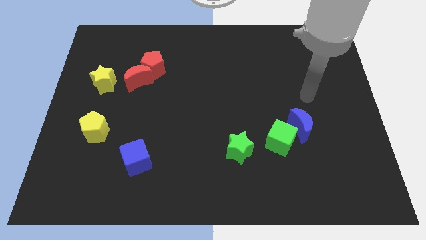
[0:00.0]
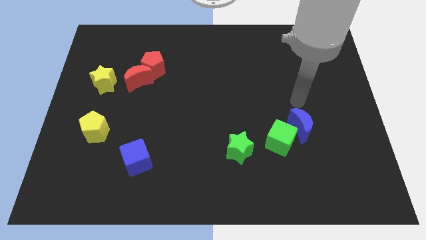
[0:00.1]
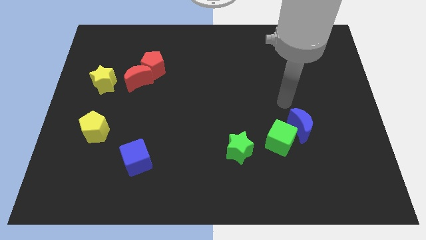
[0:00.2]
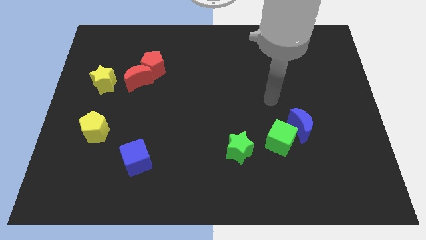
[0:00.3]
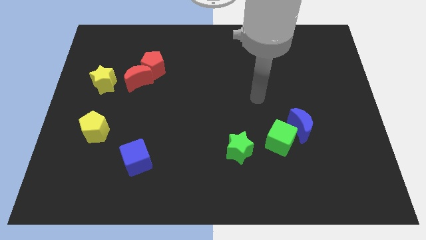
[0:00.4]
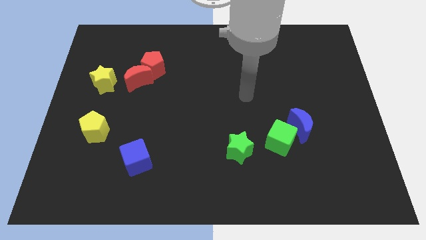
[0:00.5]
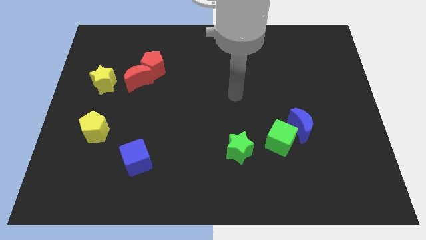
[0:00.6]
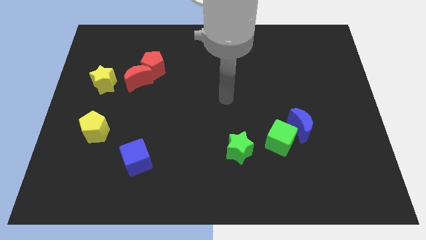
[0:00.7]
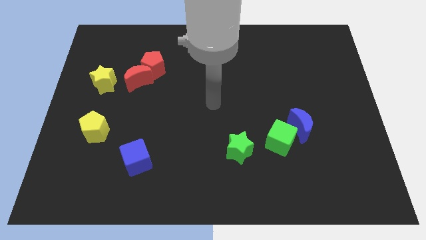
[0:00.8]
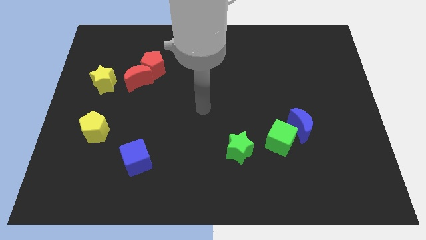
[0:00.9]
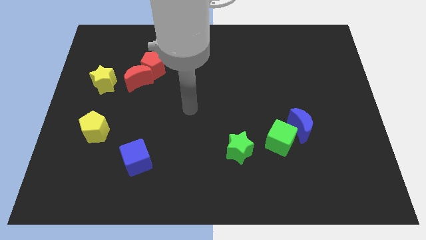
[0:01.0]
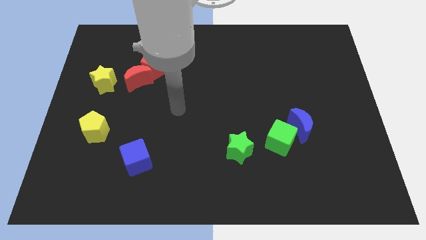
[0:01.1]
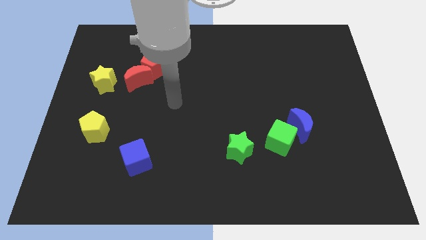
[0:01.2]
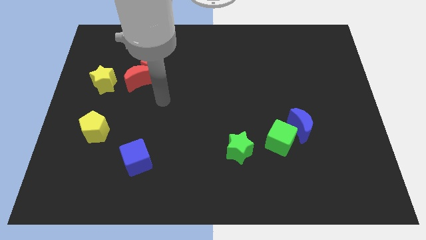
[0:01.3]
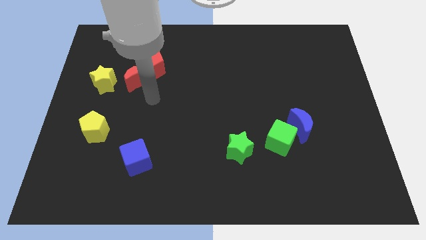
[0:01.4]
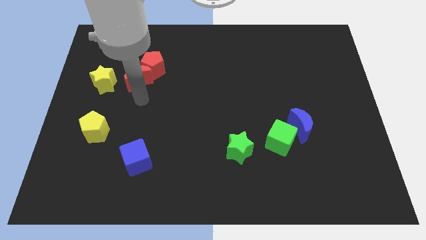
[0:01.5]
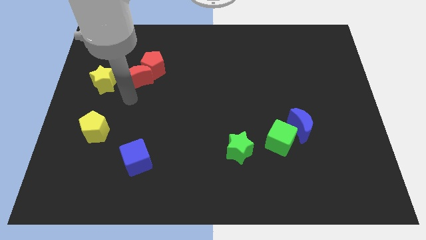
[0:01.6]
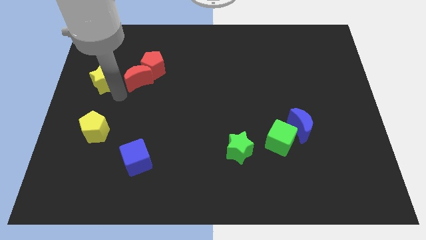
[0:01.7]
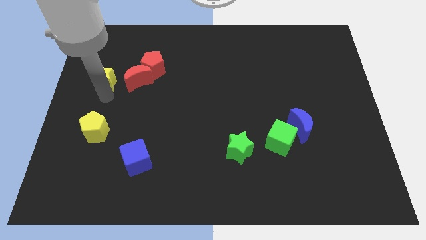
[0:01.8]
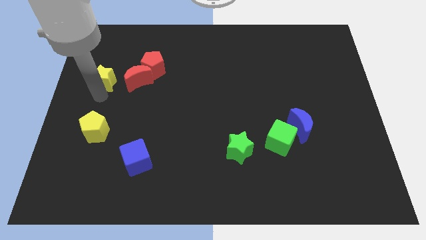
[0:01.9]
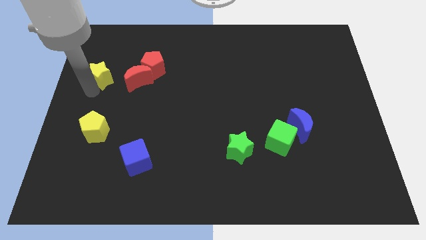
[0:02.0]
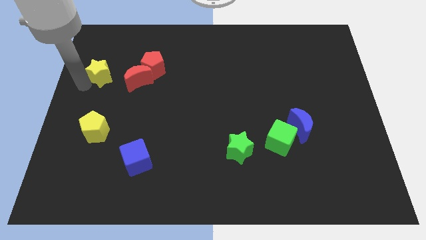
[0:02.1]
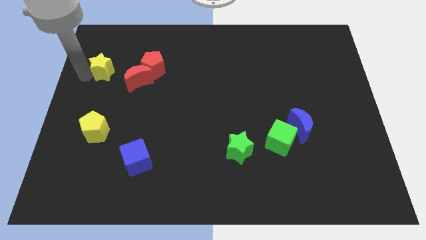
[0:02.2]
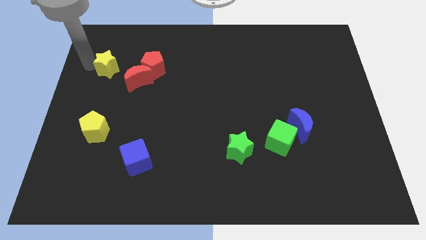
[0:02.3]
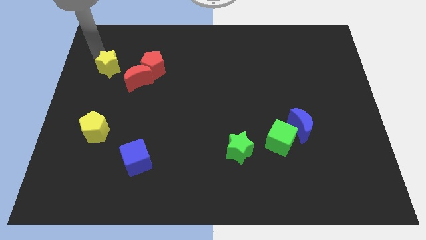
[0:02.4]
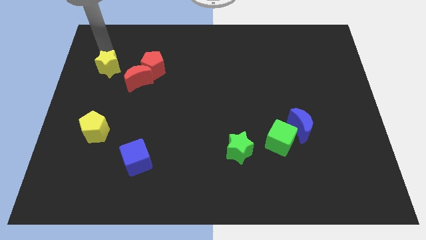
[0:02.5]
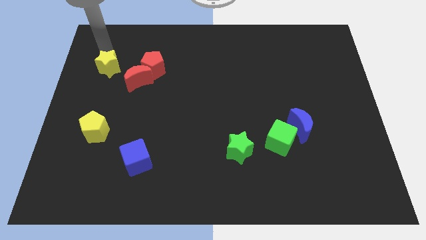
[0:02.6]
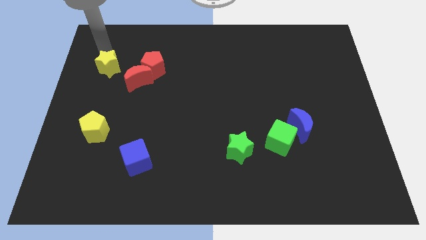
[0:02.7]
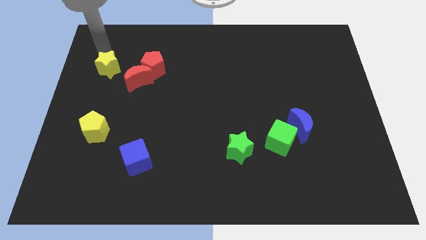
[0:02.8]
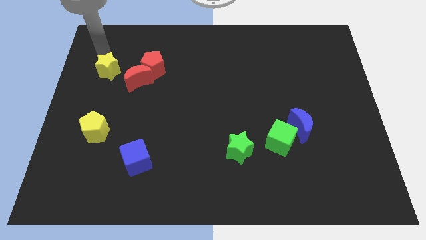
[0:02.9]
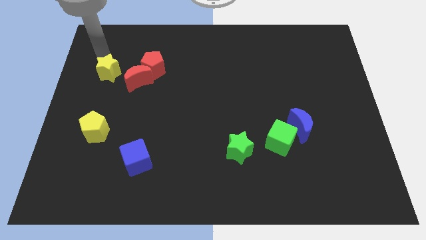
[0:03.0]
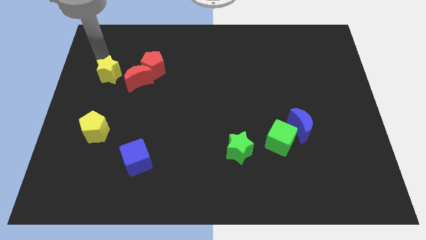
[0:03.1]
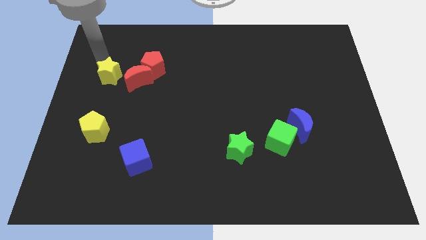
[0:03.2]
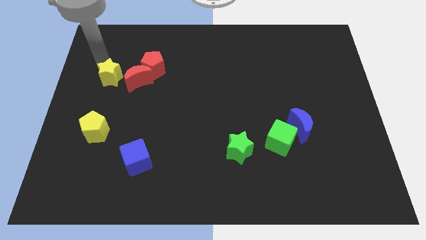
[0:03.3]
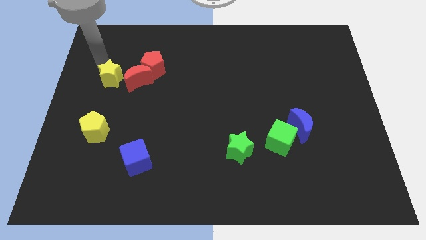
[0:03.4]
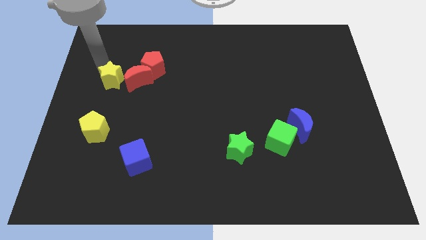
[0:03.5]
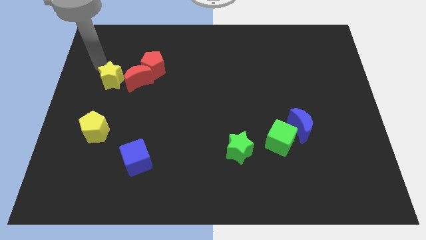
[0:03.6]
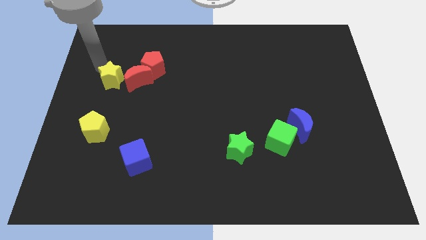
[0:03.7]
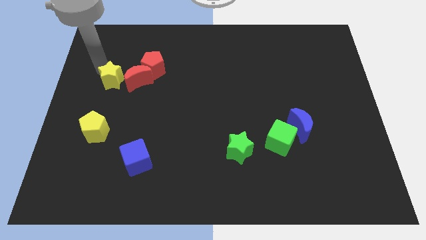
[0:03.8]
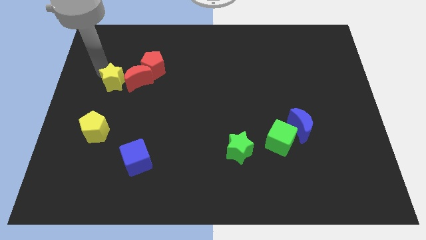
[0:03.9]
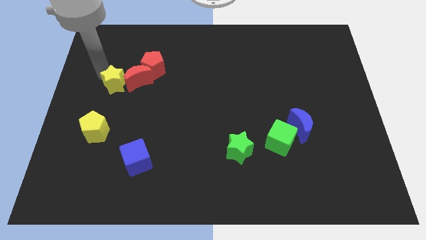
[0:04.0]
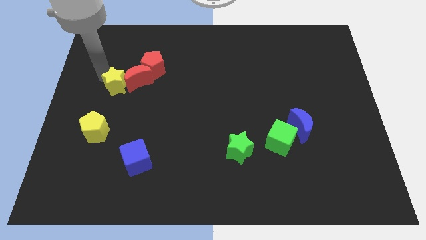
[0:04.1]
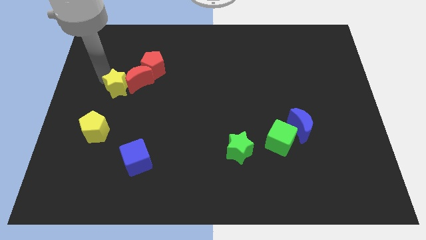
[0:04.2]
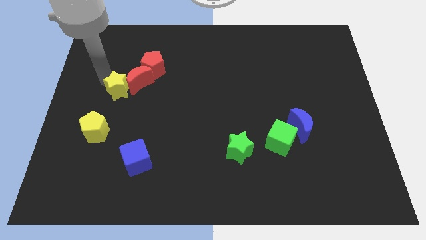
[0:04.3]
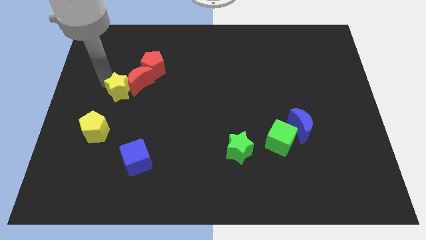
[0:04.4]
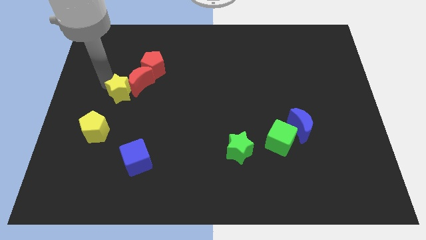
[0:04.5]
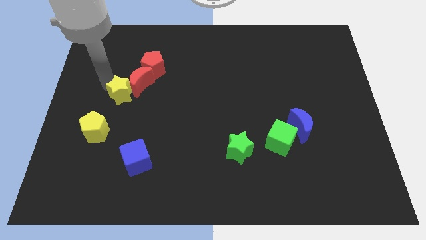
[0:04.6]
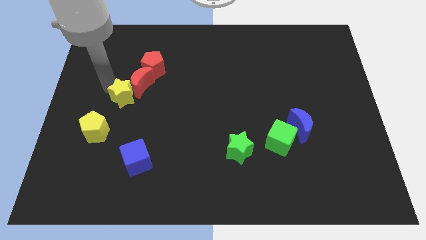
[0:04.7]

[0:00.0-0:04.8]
push the yellow star somewhat down and right diagonally

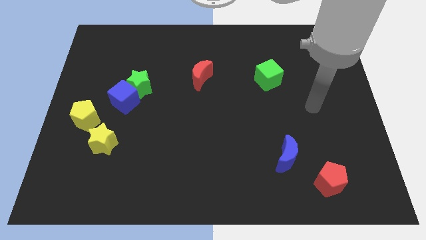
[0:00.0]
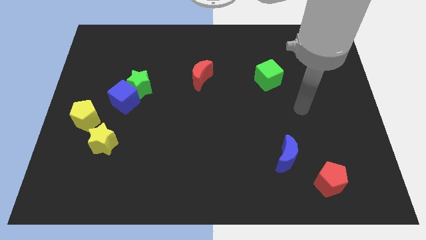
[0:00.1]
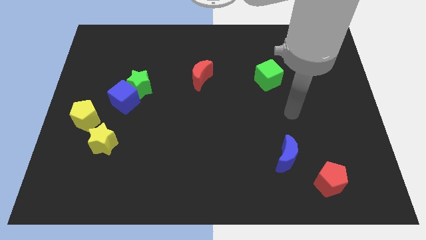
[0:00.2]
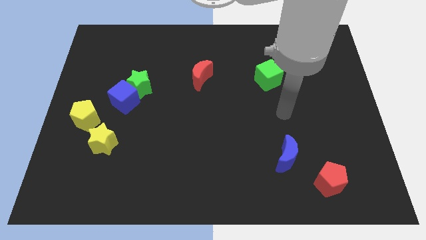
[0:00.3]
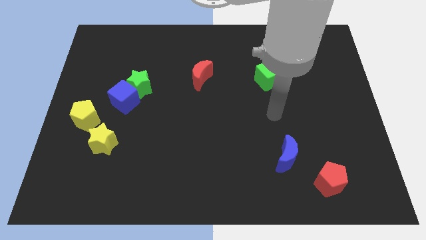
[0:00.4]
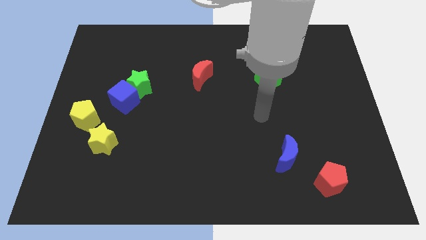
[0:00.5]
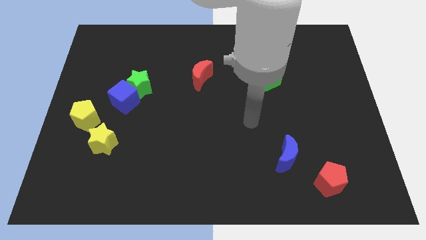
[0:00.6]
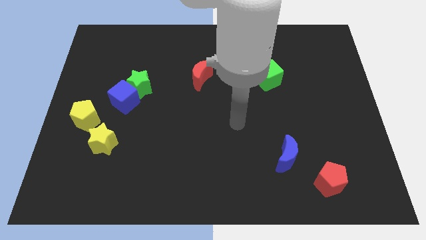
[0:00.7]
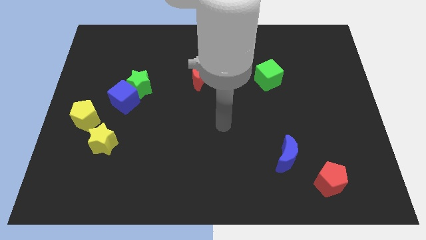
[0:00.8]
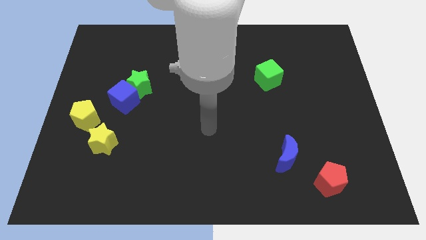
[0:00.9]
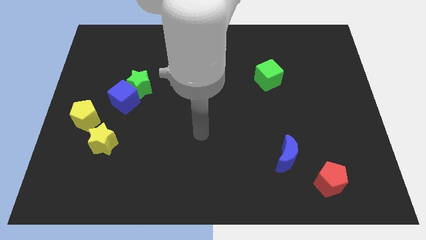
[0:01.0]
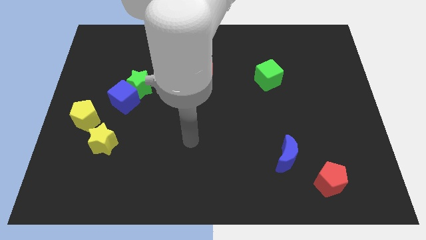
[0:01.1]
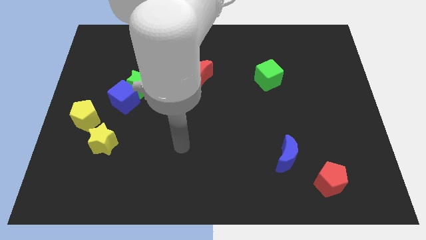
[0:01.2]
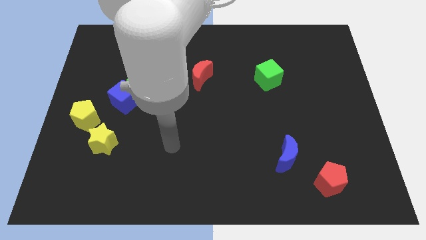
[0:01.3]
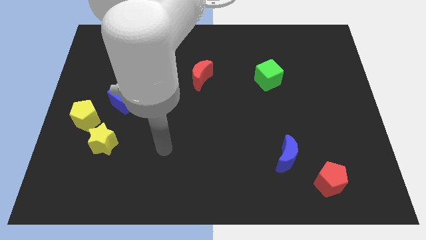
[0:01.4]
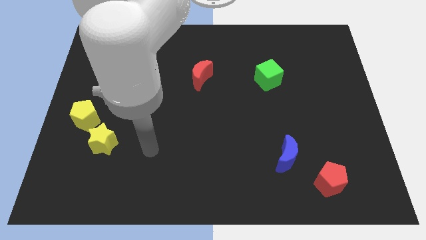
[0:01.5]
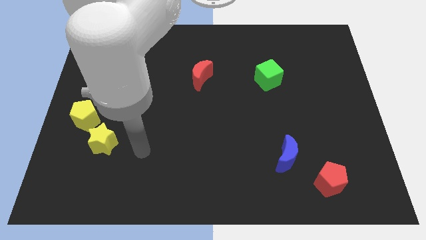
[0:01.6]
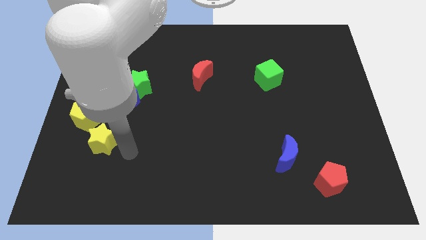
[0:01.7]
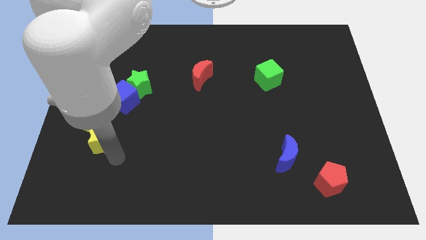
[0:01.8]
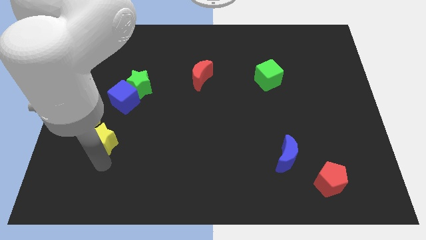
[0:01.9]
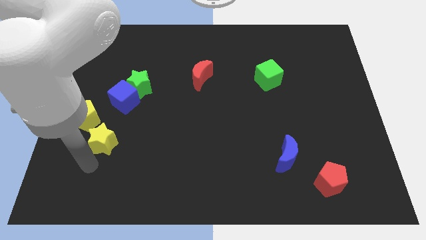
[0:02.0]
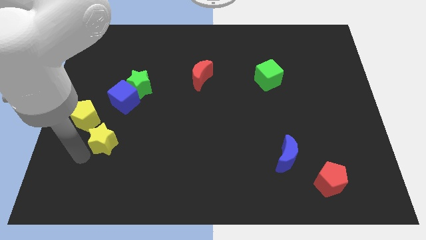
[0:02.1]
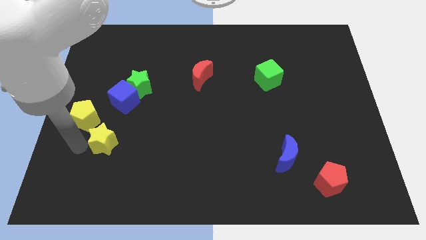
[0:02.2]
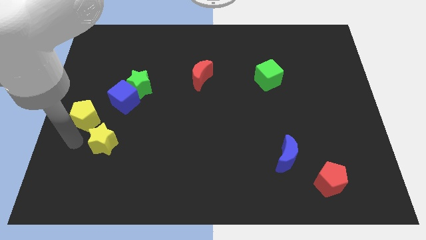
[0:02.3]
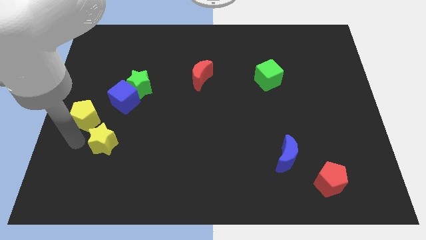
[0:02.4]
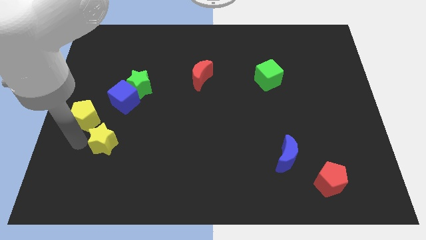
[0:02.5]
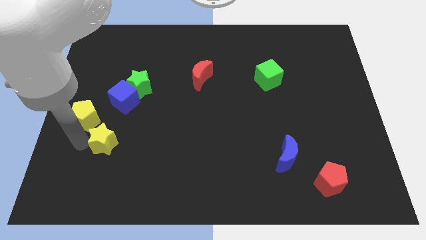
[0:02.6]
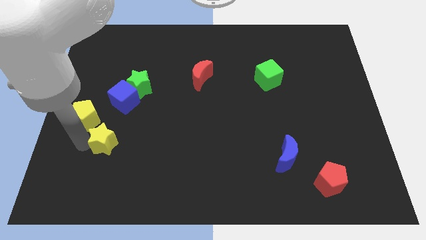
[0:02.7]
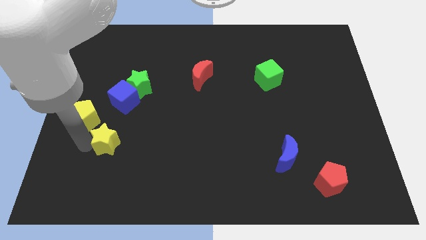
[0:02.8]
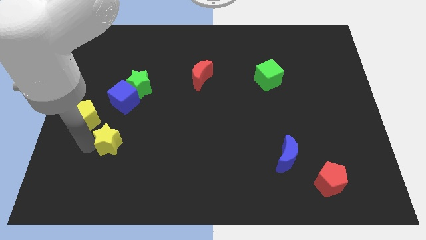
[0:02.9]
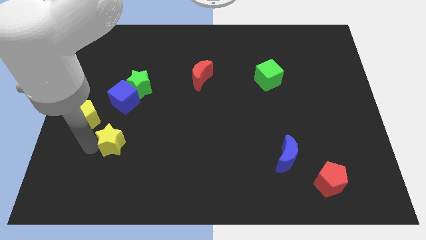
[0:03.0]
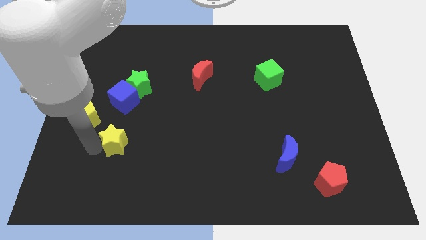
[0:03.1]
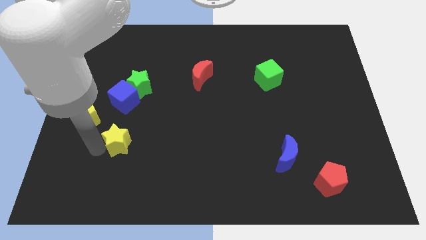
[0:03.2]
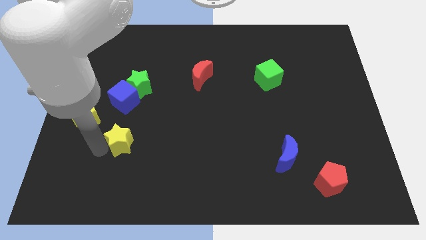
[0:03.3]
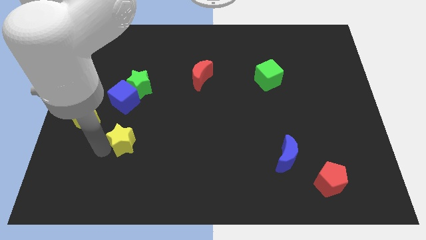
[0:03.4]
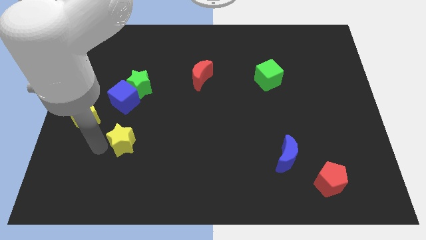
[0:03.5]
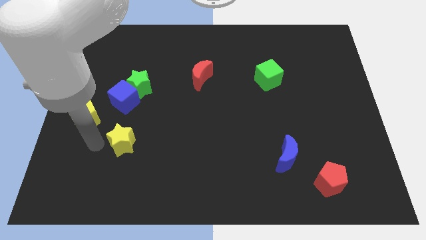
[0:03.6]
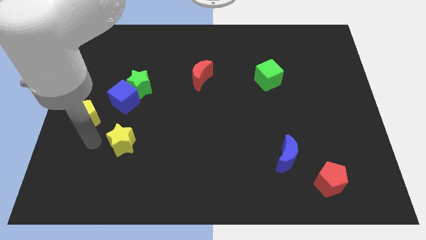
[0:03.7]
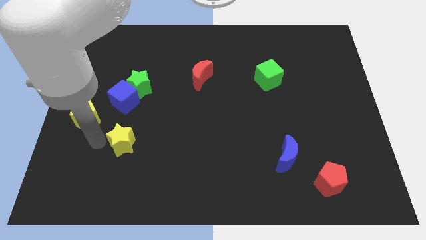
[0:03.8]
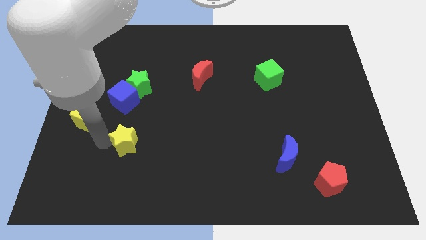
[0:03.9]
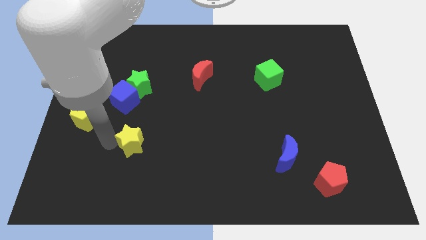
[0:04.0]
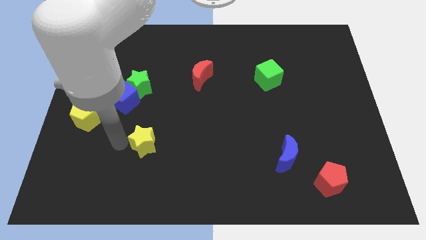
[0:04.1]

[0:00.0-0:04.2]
slightly move the yellow star right
